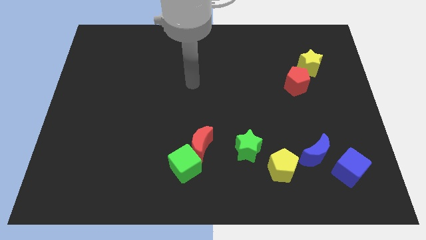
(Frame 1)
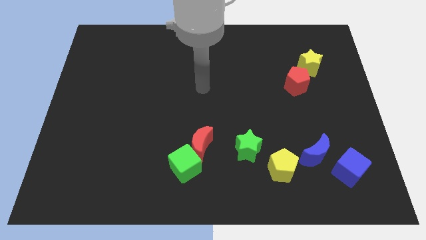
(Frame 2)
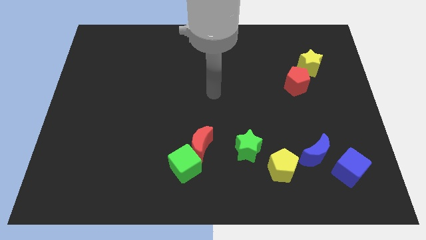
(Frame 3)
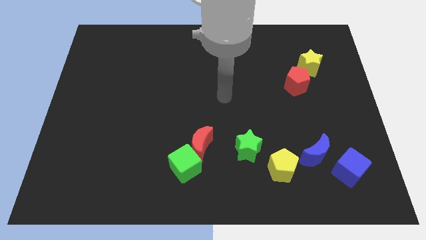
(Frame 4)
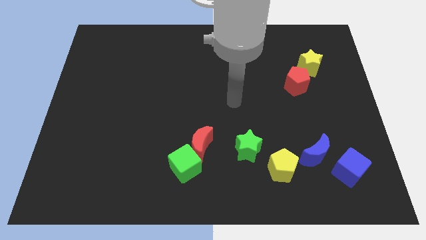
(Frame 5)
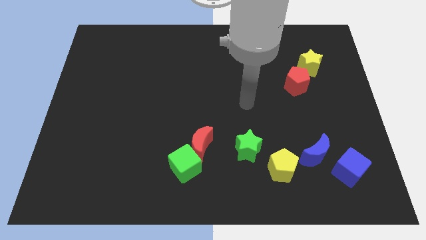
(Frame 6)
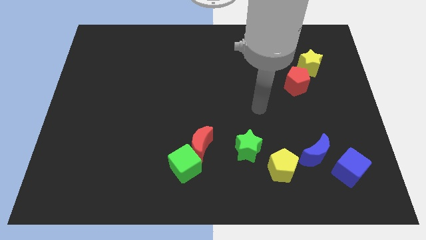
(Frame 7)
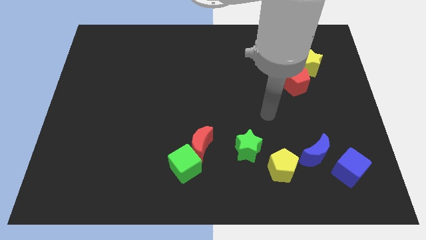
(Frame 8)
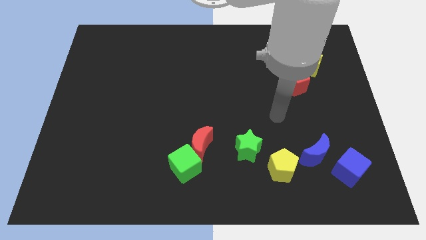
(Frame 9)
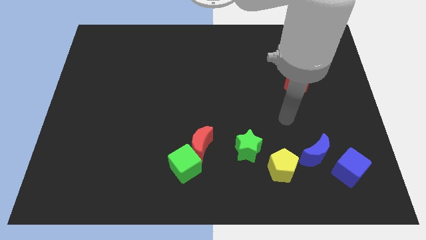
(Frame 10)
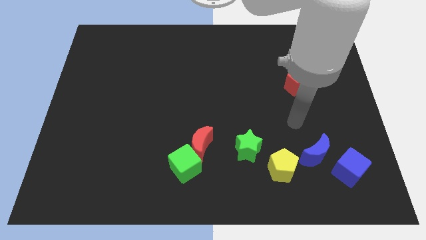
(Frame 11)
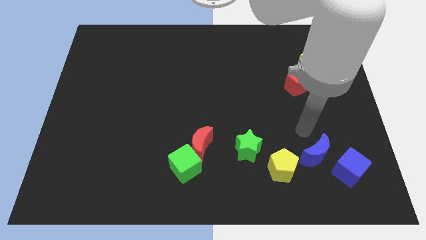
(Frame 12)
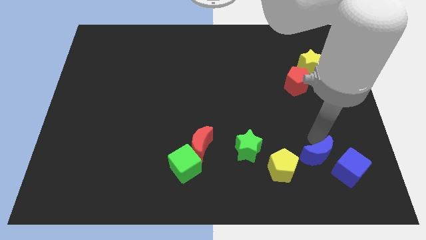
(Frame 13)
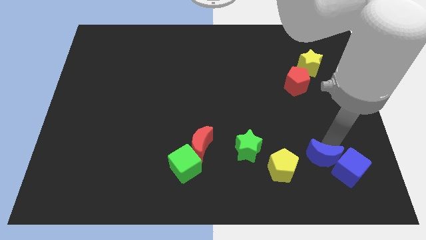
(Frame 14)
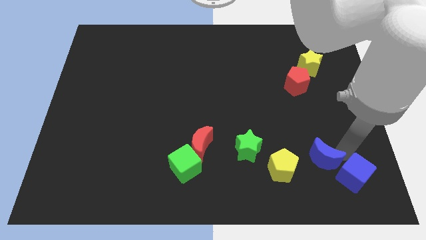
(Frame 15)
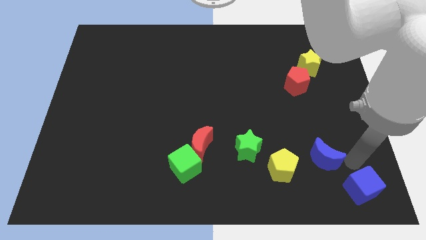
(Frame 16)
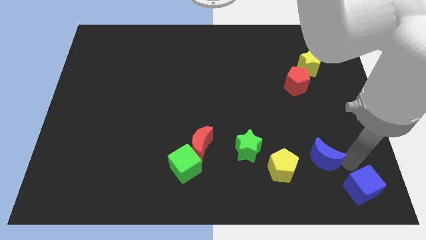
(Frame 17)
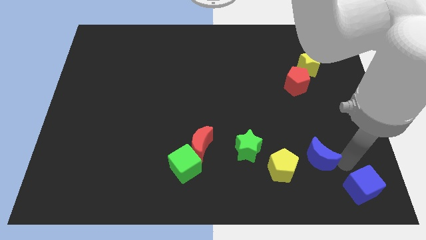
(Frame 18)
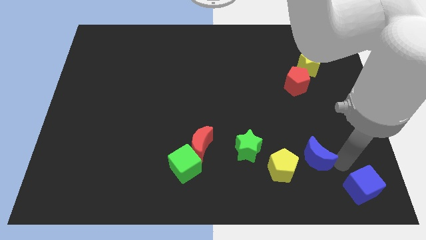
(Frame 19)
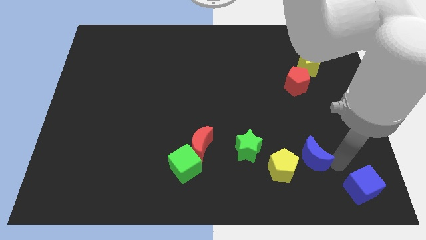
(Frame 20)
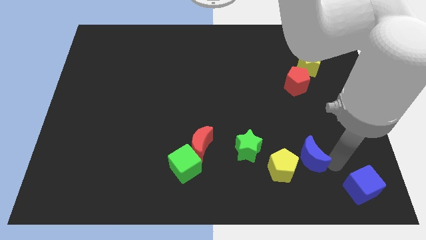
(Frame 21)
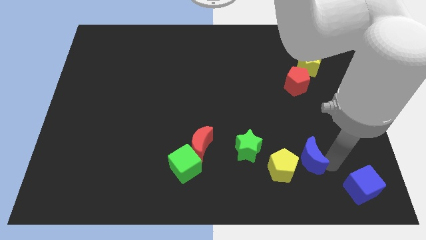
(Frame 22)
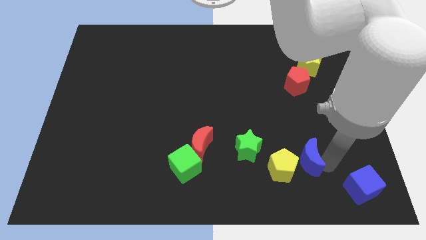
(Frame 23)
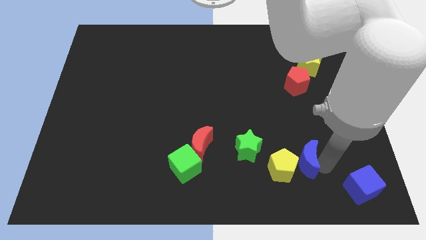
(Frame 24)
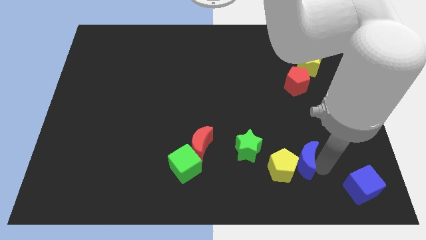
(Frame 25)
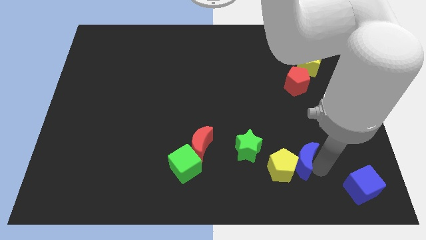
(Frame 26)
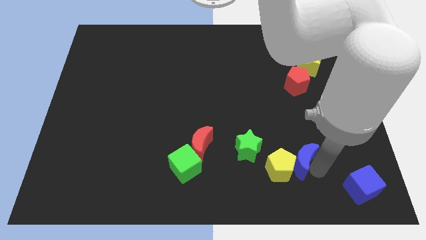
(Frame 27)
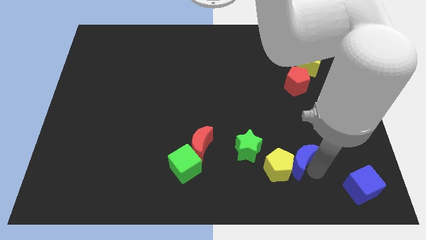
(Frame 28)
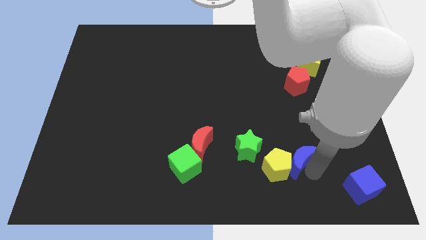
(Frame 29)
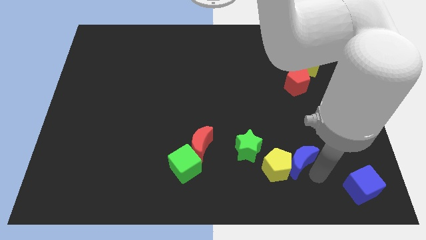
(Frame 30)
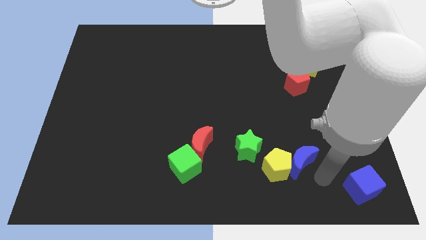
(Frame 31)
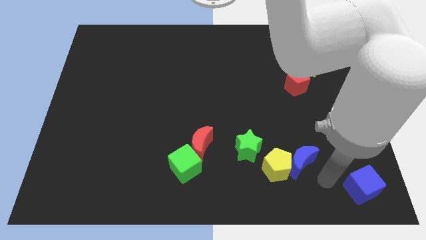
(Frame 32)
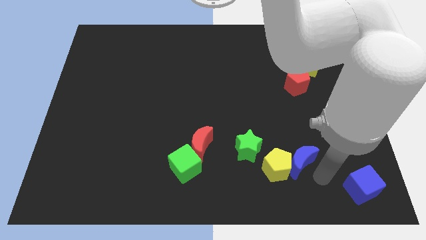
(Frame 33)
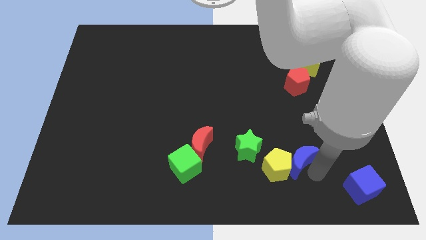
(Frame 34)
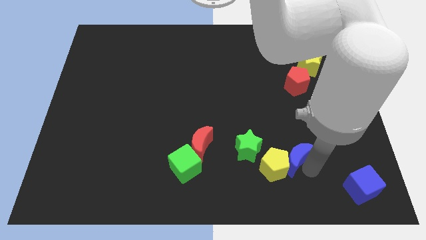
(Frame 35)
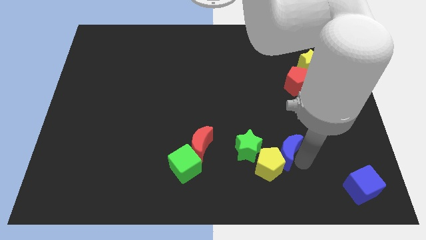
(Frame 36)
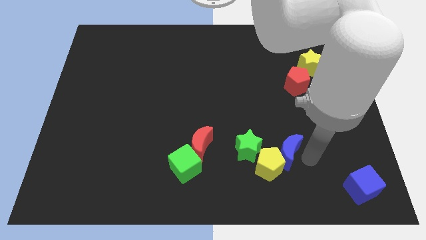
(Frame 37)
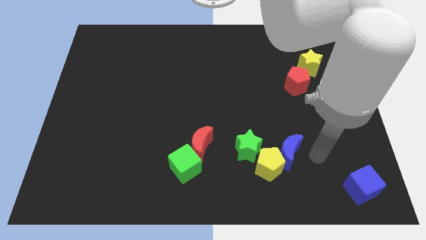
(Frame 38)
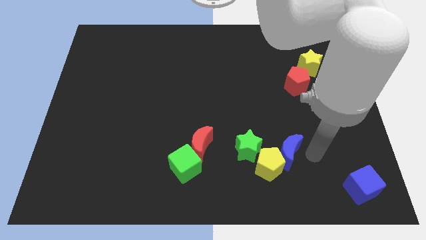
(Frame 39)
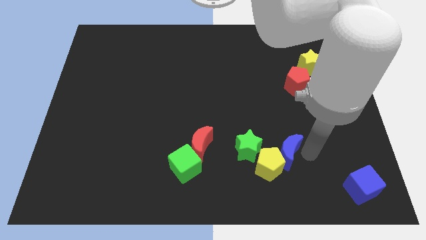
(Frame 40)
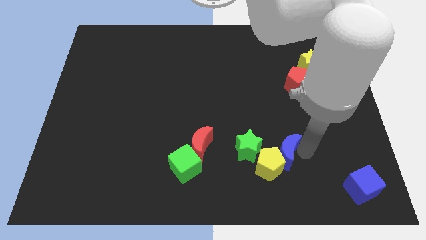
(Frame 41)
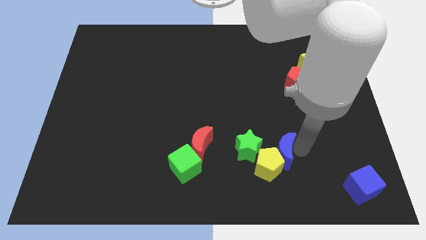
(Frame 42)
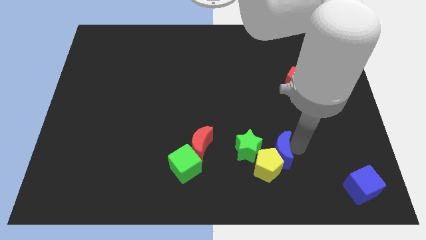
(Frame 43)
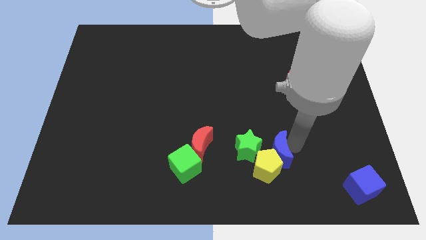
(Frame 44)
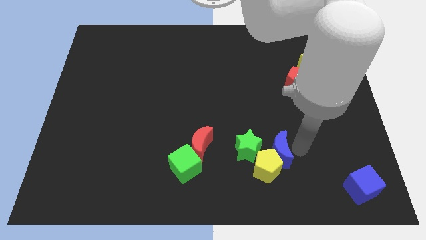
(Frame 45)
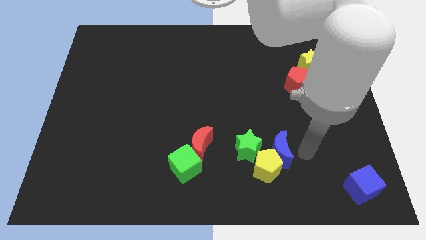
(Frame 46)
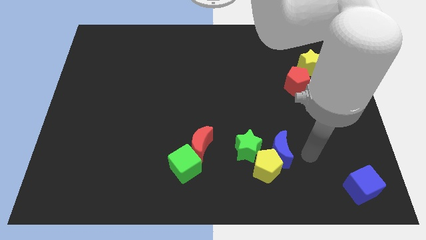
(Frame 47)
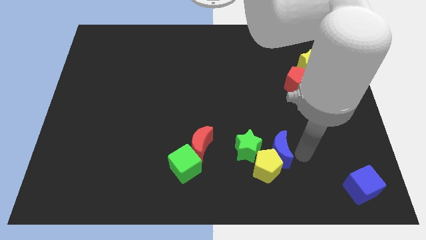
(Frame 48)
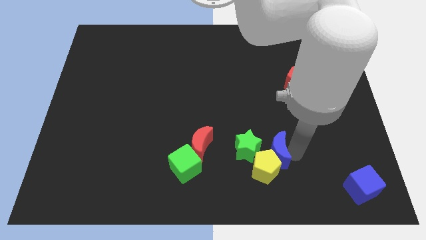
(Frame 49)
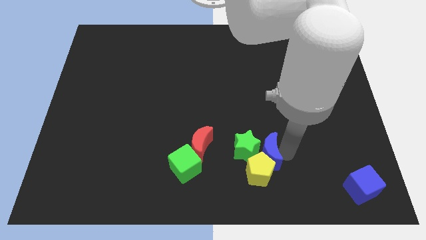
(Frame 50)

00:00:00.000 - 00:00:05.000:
move the blue moon towards the green star

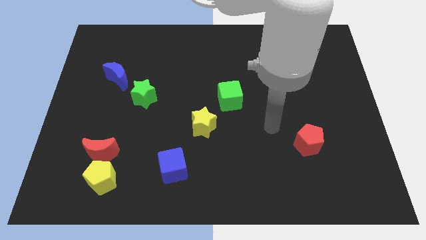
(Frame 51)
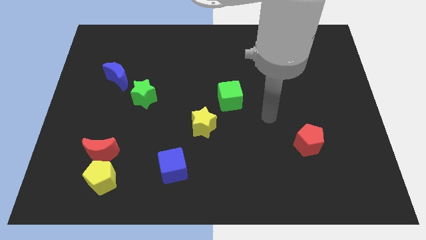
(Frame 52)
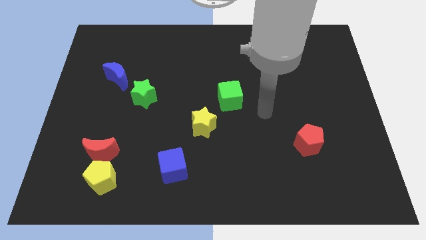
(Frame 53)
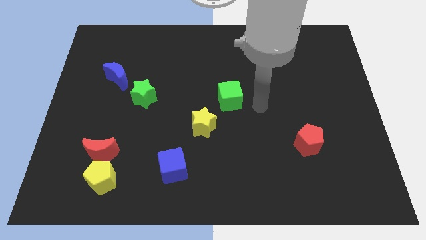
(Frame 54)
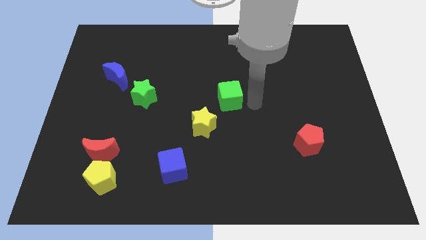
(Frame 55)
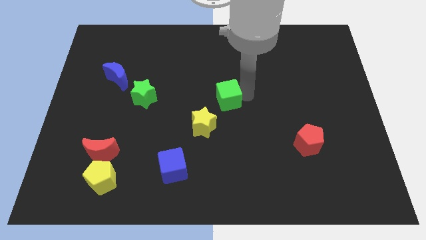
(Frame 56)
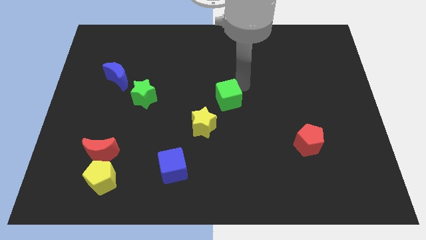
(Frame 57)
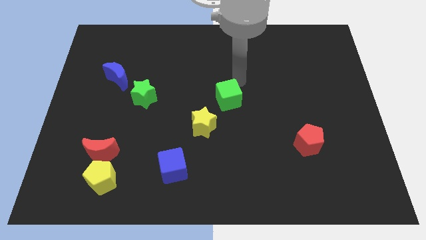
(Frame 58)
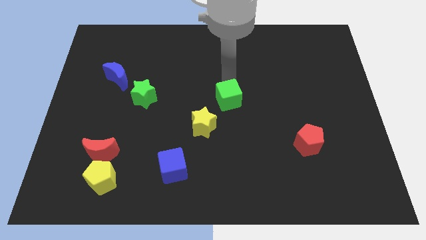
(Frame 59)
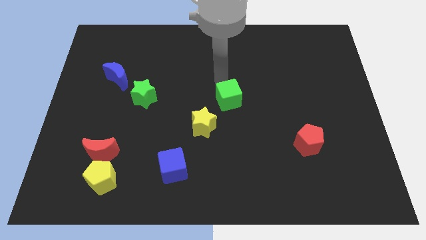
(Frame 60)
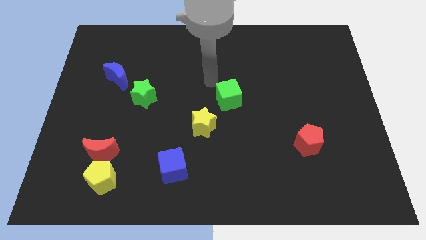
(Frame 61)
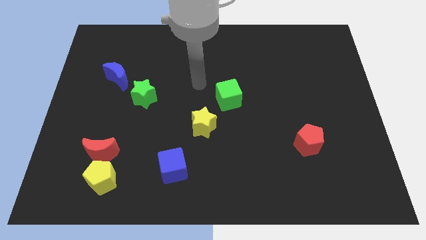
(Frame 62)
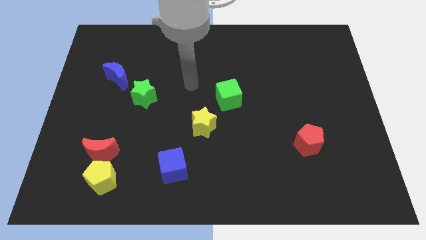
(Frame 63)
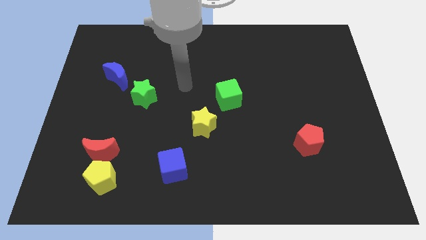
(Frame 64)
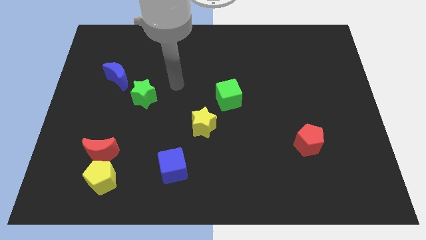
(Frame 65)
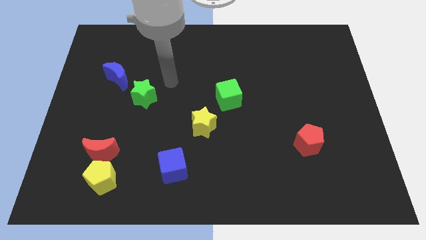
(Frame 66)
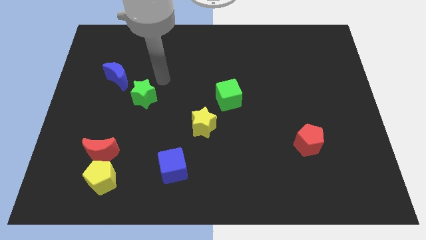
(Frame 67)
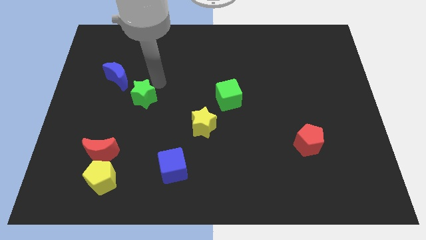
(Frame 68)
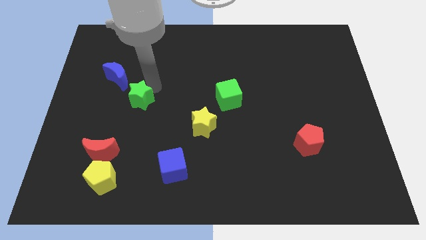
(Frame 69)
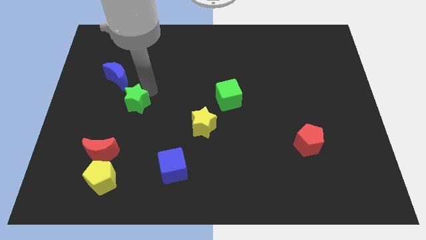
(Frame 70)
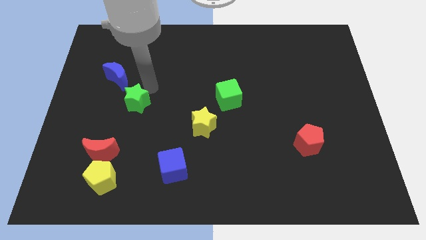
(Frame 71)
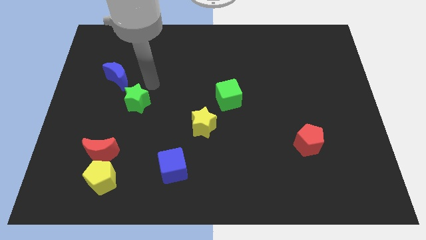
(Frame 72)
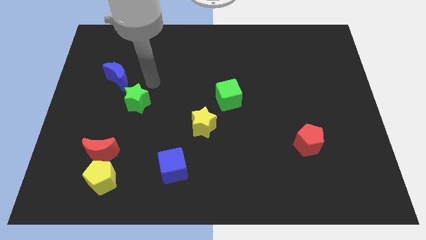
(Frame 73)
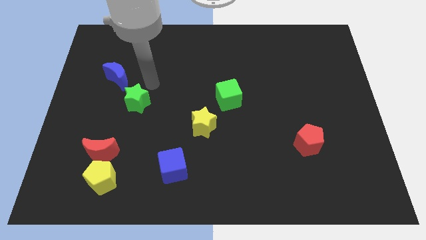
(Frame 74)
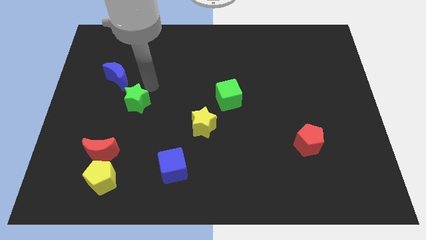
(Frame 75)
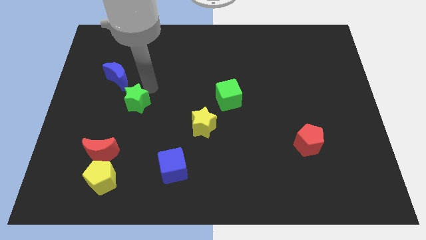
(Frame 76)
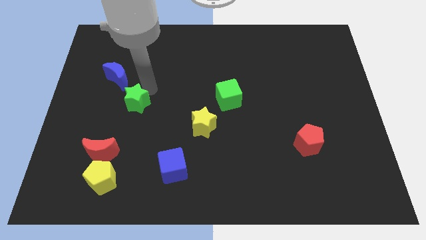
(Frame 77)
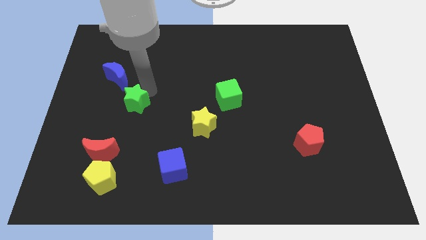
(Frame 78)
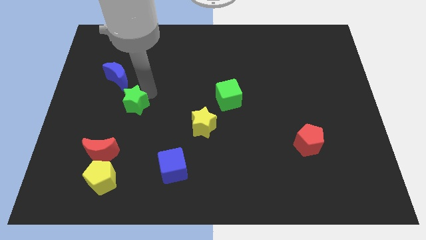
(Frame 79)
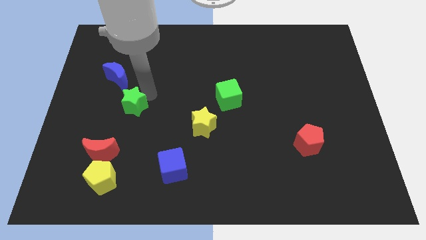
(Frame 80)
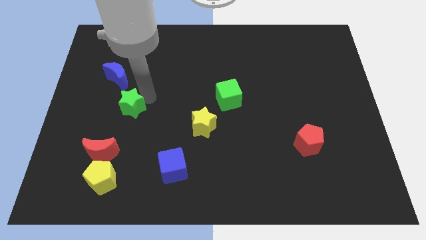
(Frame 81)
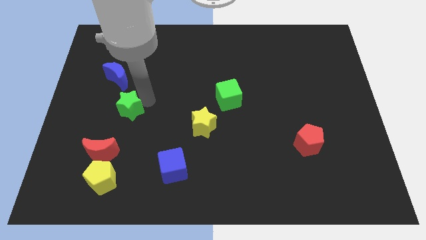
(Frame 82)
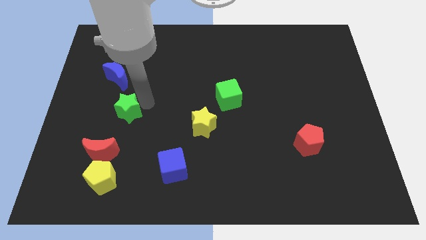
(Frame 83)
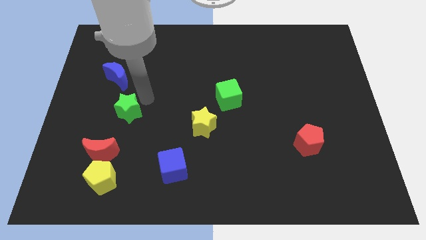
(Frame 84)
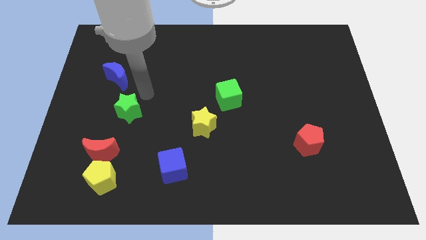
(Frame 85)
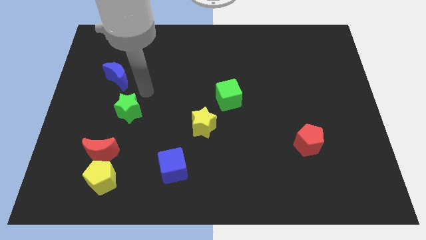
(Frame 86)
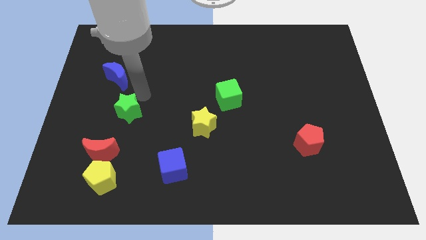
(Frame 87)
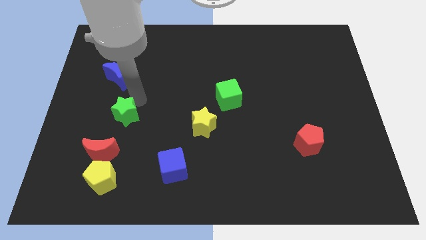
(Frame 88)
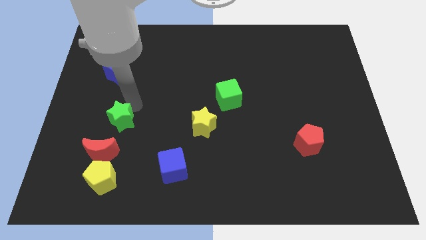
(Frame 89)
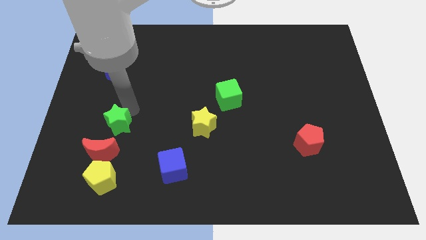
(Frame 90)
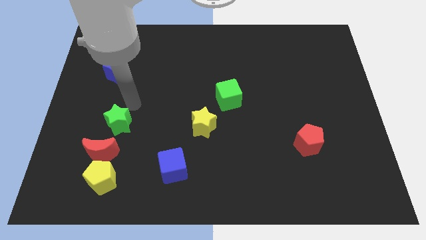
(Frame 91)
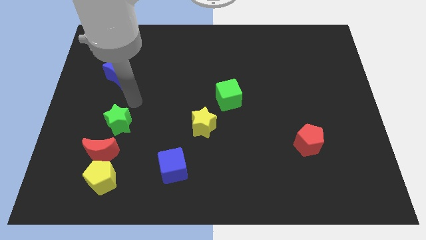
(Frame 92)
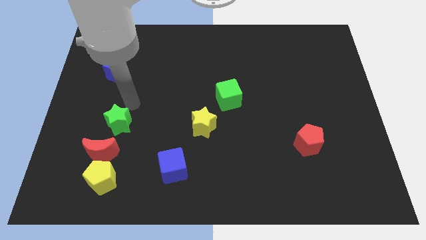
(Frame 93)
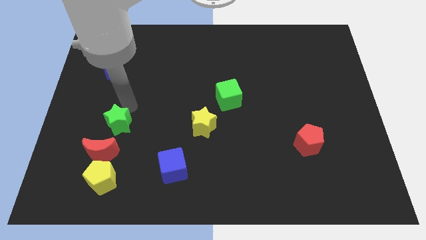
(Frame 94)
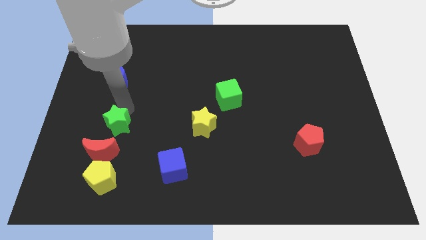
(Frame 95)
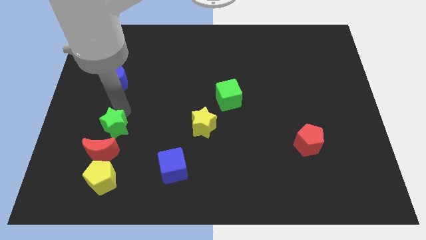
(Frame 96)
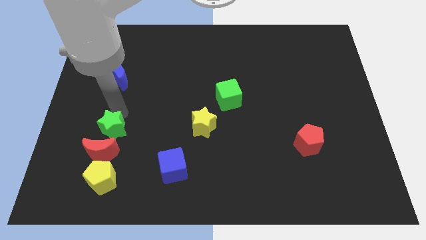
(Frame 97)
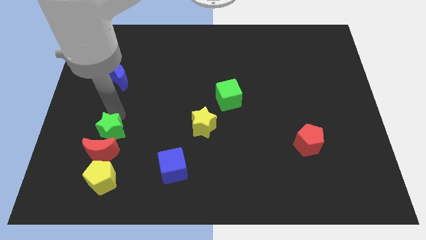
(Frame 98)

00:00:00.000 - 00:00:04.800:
move the green star to the red moon
